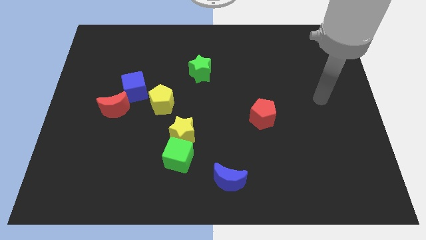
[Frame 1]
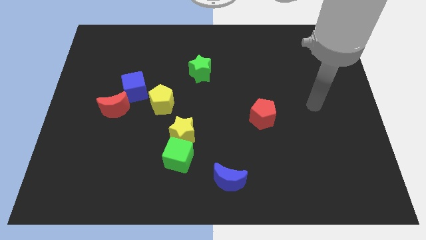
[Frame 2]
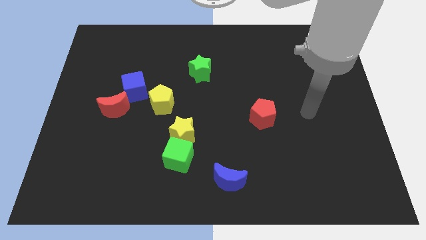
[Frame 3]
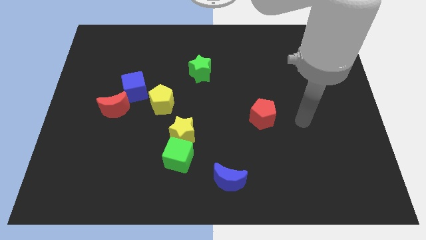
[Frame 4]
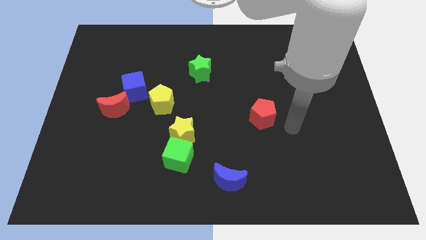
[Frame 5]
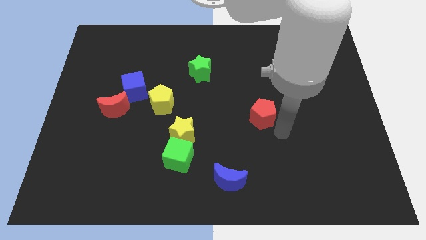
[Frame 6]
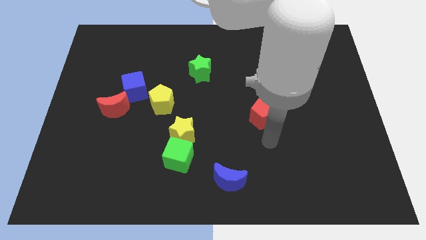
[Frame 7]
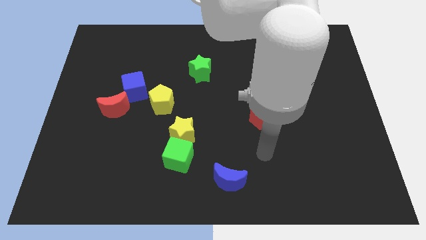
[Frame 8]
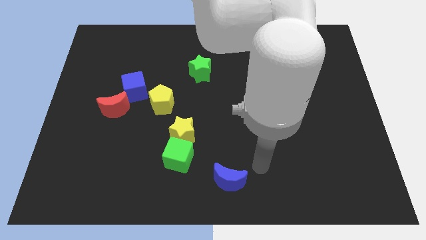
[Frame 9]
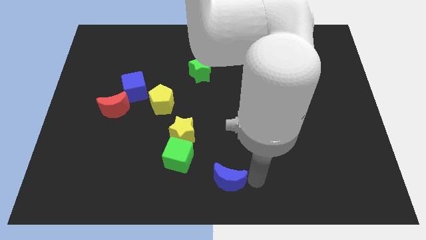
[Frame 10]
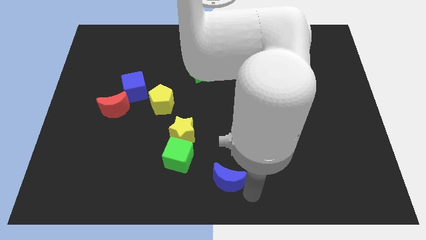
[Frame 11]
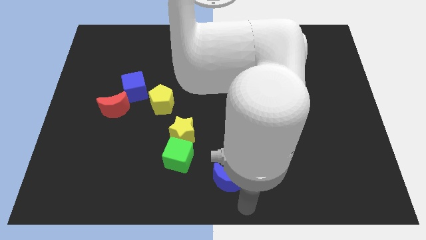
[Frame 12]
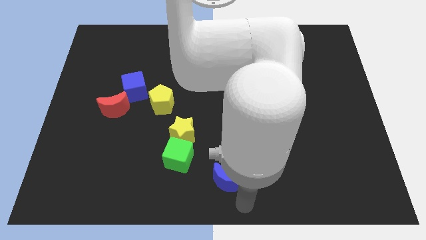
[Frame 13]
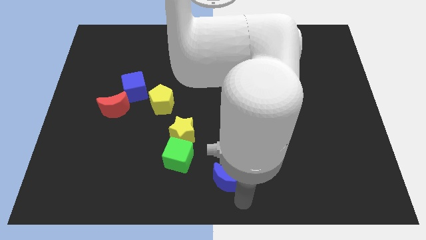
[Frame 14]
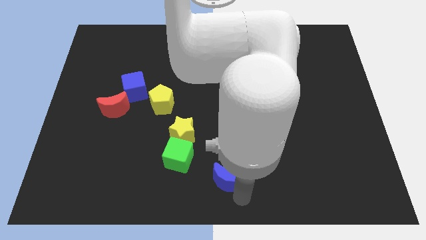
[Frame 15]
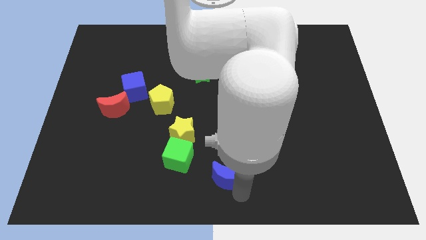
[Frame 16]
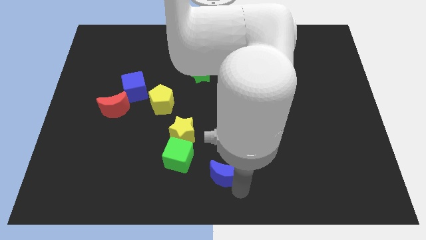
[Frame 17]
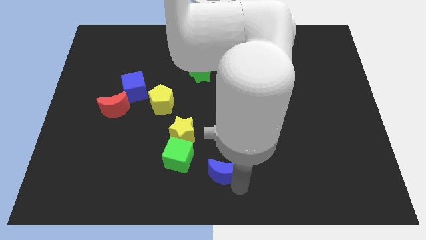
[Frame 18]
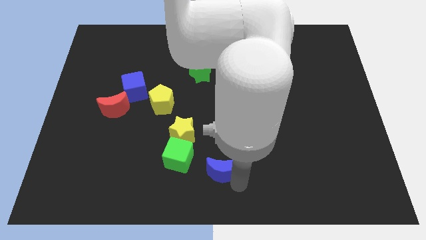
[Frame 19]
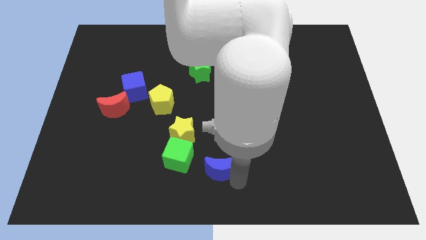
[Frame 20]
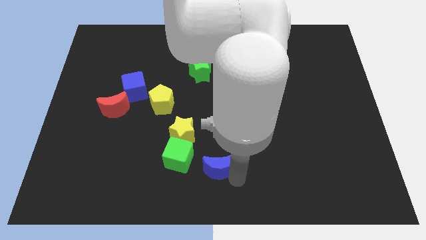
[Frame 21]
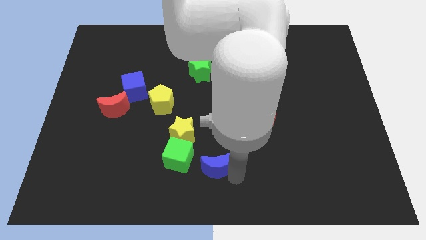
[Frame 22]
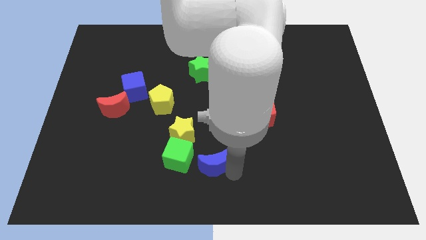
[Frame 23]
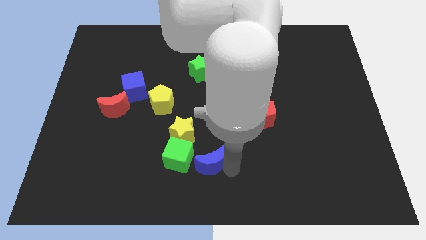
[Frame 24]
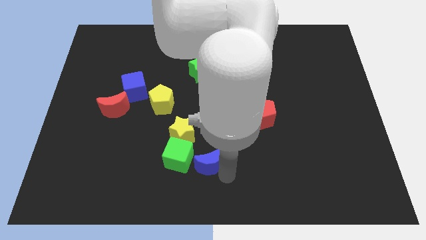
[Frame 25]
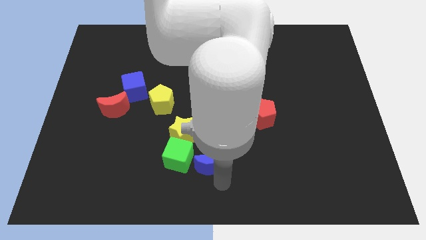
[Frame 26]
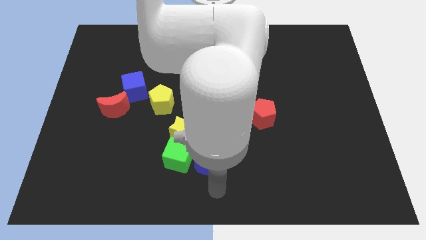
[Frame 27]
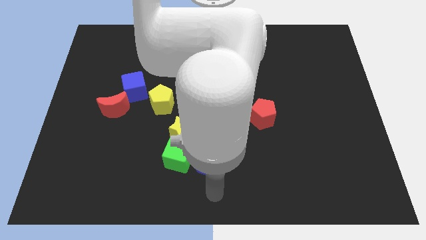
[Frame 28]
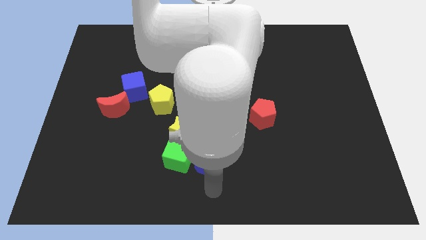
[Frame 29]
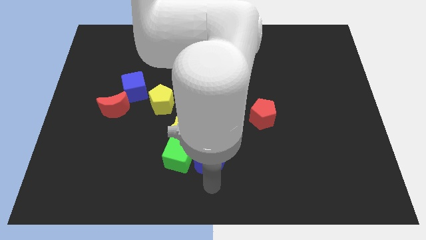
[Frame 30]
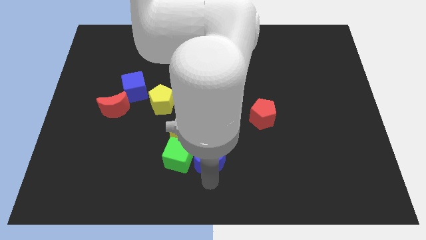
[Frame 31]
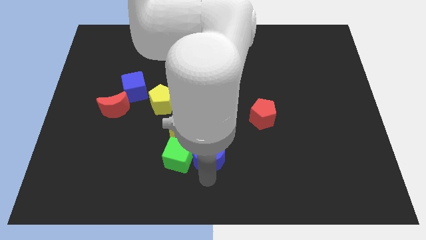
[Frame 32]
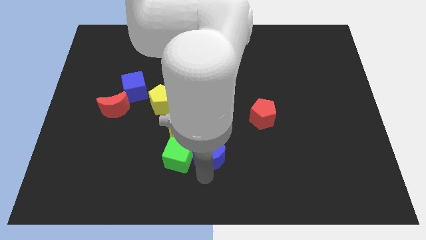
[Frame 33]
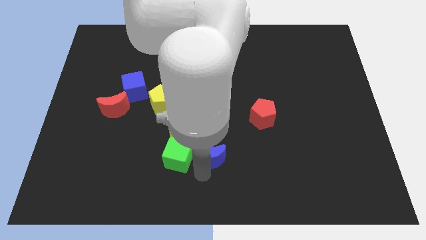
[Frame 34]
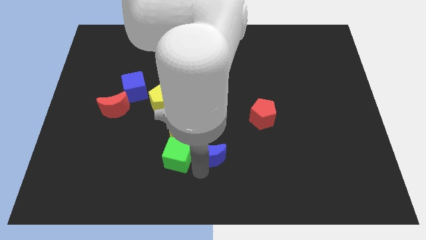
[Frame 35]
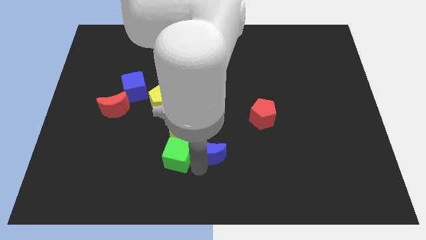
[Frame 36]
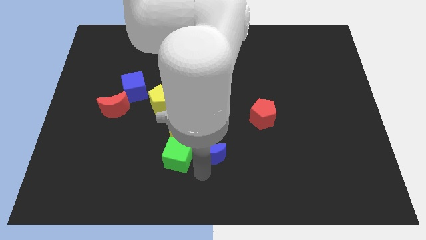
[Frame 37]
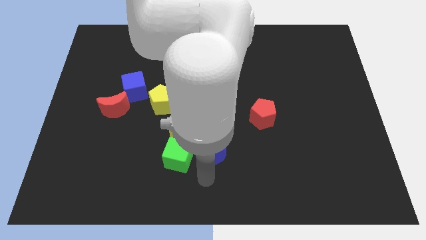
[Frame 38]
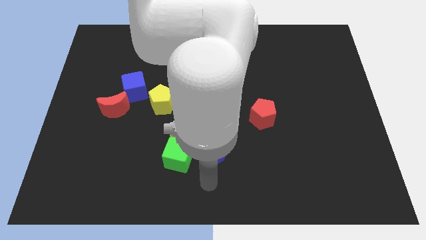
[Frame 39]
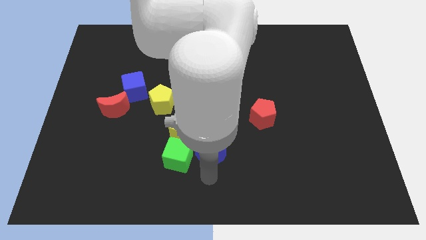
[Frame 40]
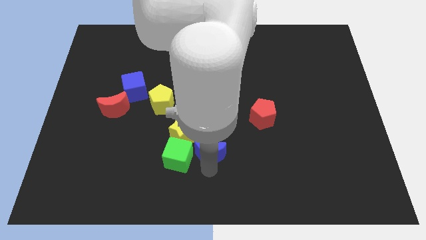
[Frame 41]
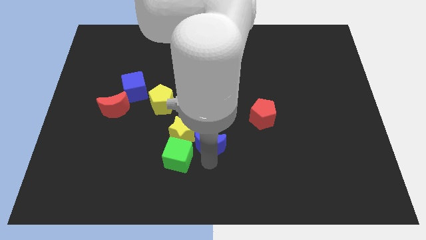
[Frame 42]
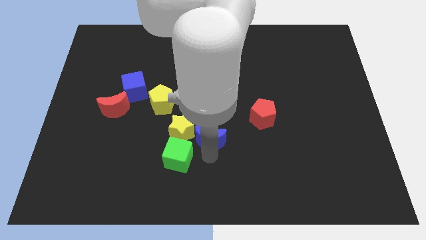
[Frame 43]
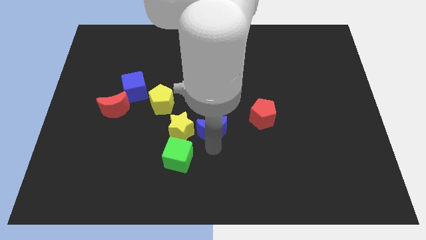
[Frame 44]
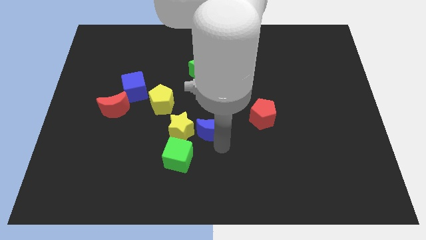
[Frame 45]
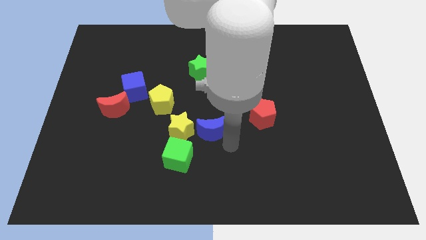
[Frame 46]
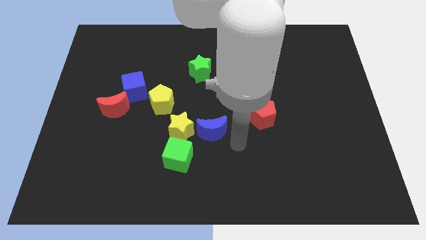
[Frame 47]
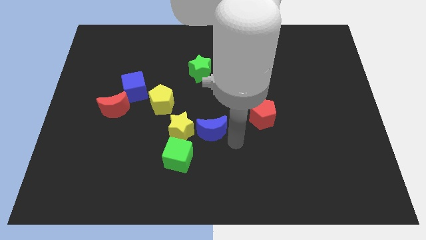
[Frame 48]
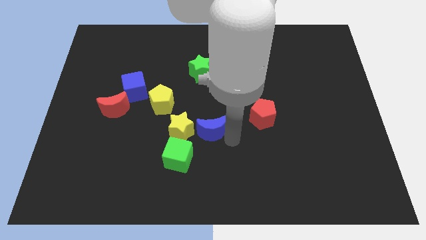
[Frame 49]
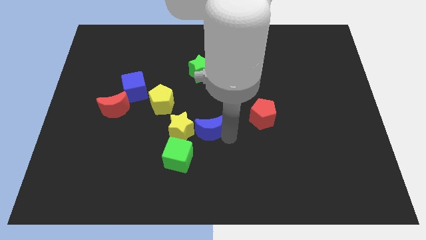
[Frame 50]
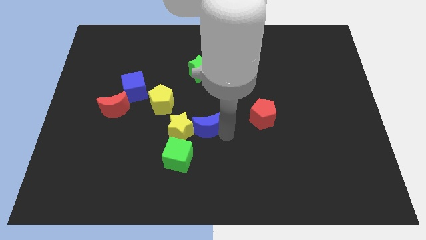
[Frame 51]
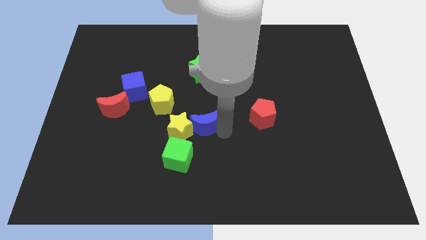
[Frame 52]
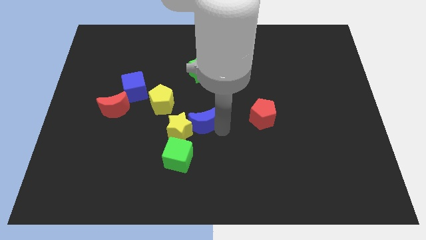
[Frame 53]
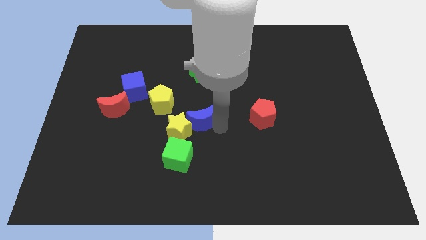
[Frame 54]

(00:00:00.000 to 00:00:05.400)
put the blue moon to the top side of the green cube

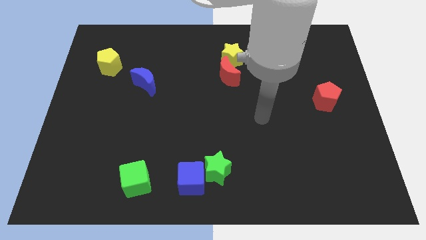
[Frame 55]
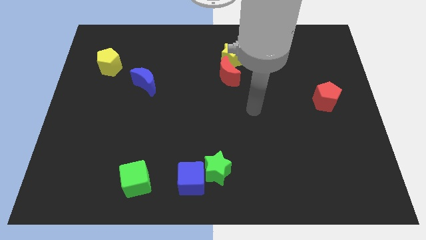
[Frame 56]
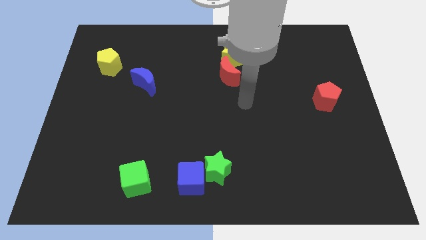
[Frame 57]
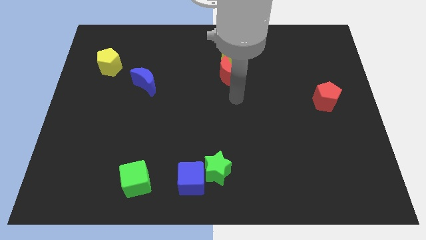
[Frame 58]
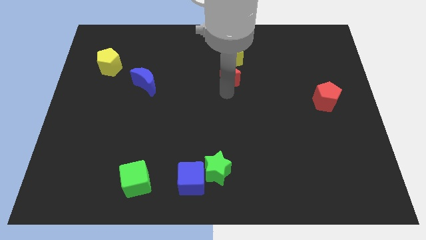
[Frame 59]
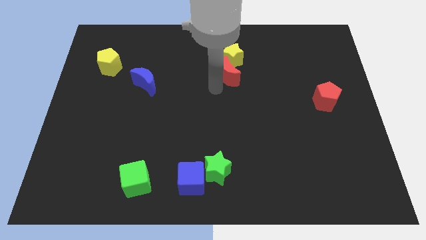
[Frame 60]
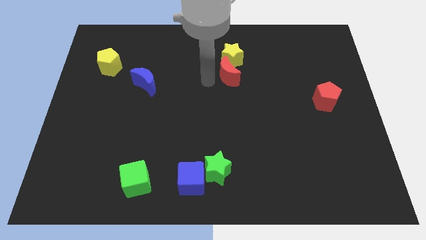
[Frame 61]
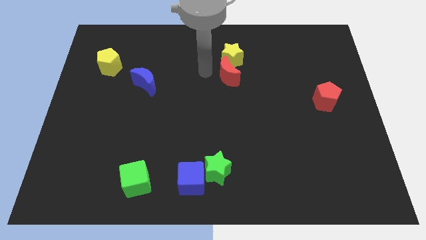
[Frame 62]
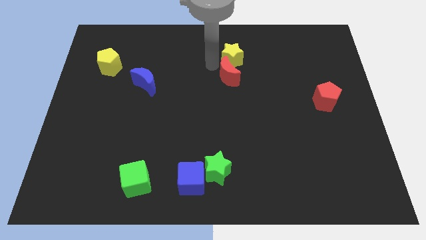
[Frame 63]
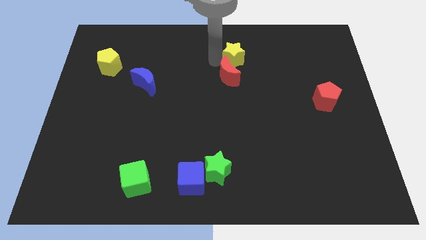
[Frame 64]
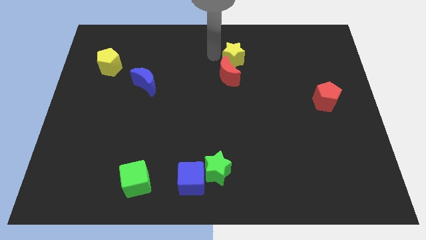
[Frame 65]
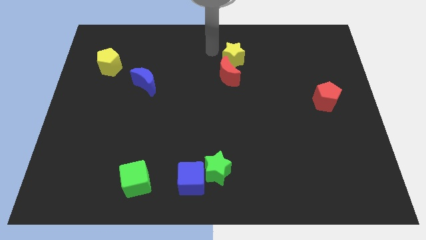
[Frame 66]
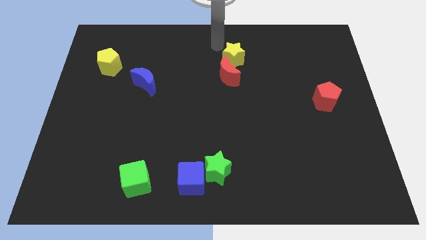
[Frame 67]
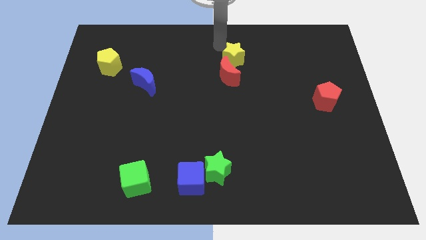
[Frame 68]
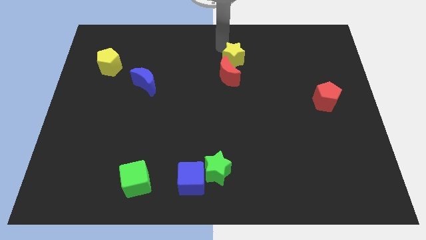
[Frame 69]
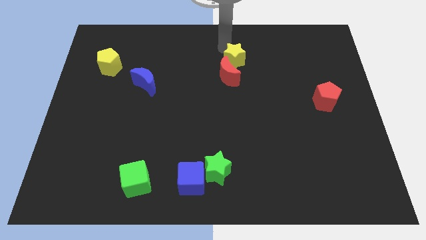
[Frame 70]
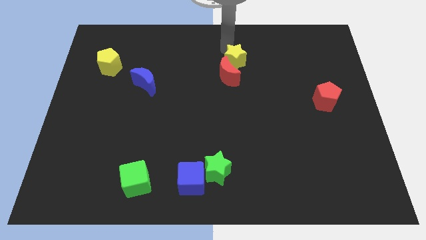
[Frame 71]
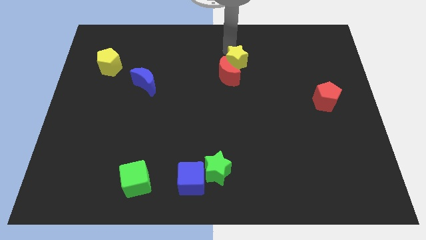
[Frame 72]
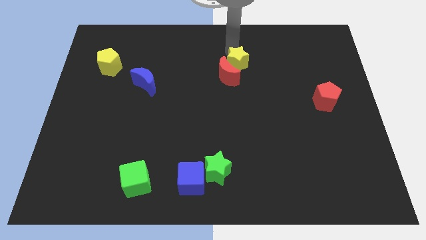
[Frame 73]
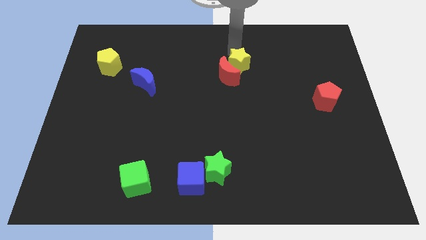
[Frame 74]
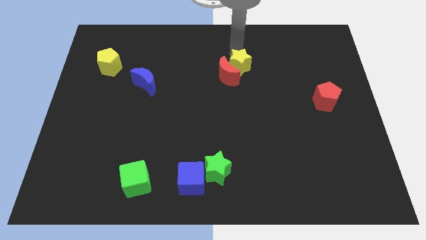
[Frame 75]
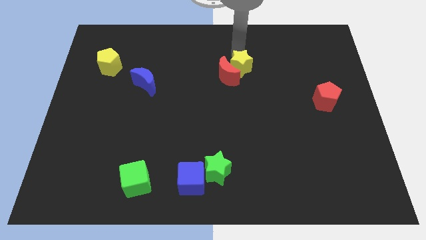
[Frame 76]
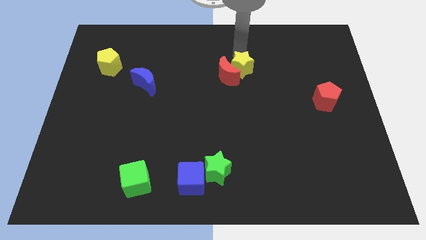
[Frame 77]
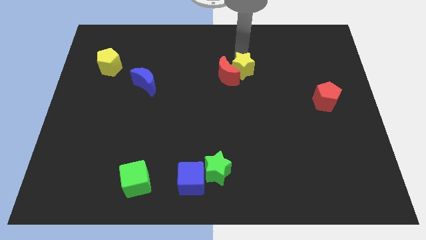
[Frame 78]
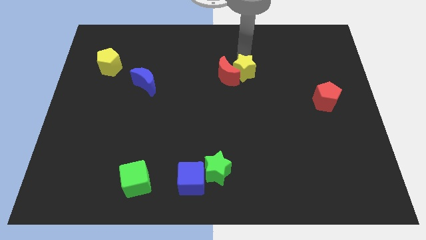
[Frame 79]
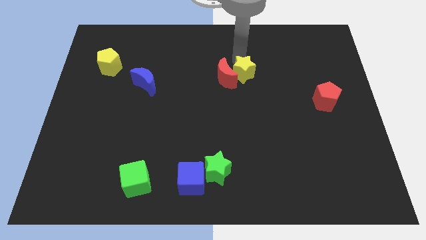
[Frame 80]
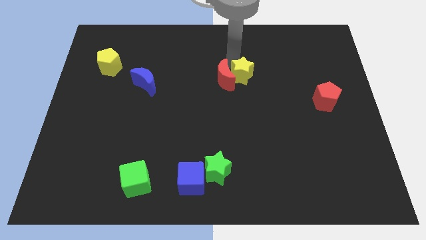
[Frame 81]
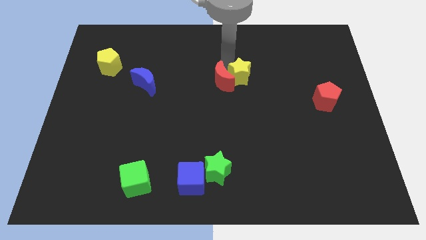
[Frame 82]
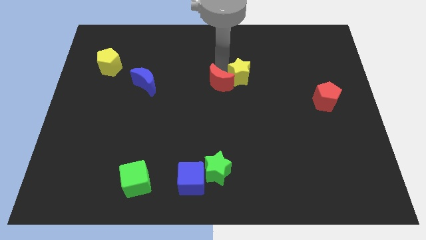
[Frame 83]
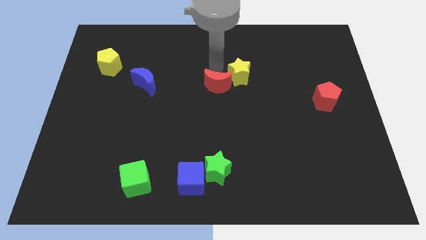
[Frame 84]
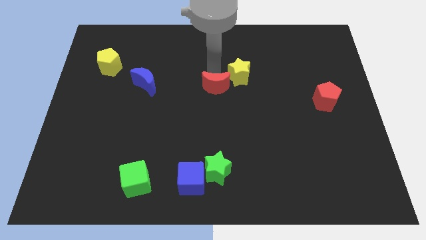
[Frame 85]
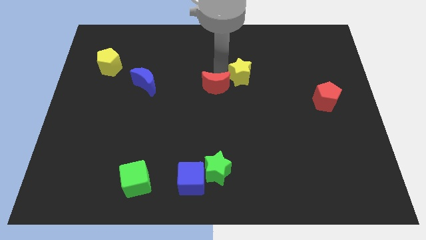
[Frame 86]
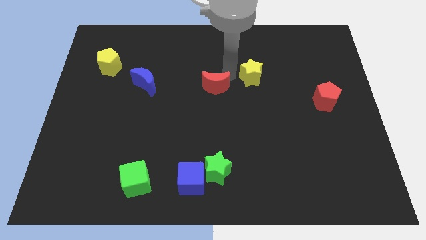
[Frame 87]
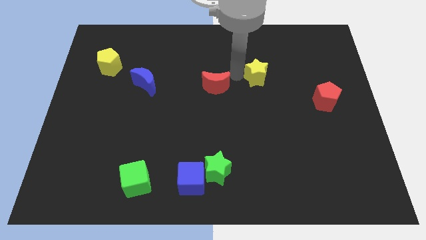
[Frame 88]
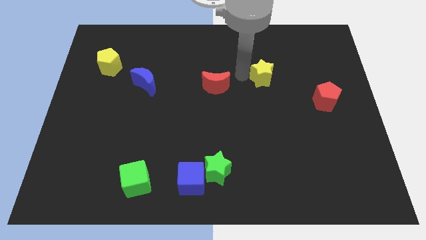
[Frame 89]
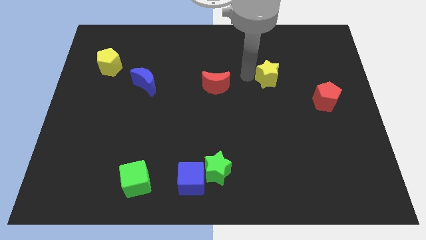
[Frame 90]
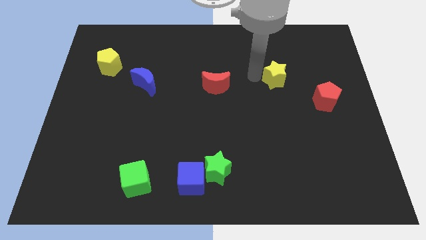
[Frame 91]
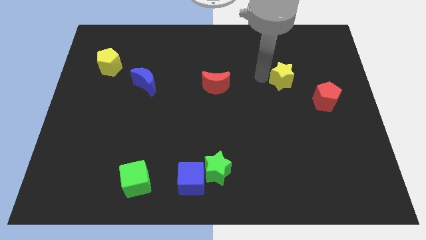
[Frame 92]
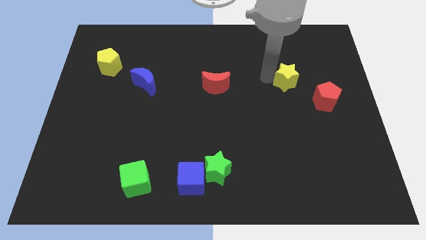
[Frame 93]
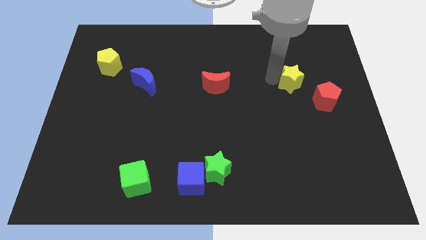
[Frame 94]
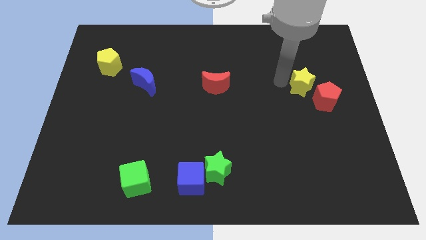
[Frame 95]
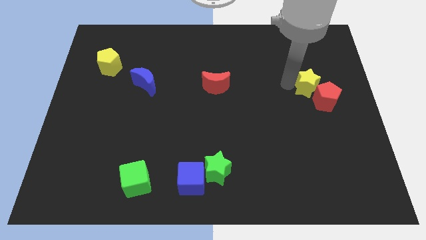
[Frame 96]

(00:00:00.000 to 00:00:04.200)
move the yellow star to the top of the red pentagon
